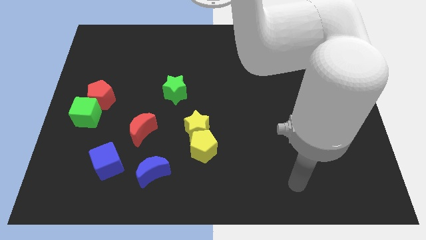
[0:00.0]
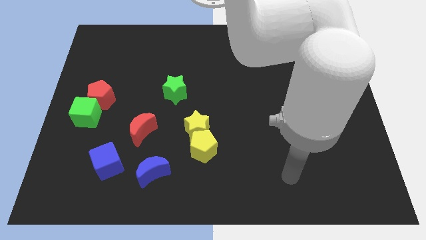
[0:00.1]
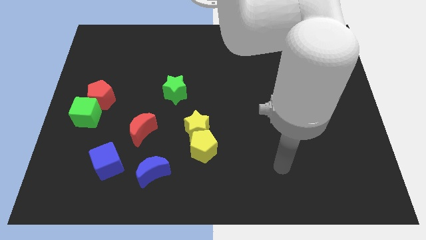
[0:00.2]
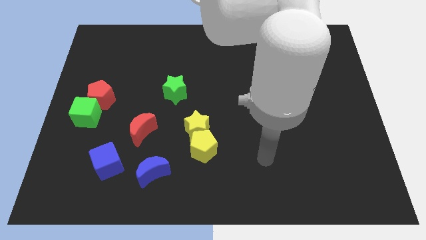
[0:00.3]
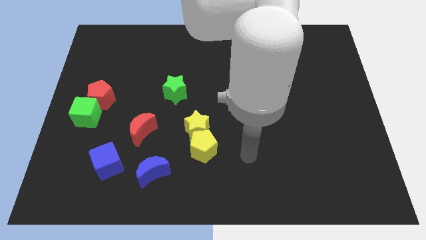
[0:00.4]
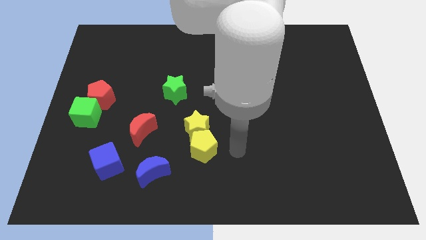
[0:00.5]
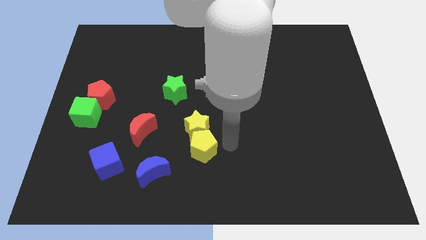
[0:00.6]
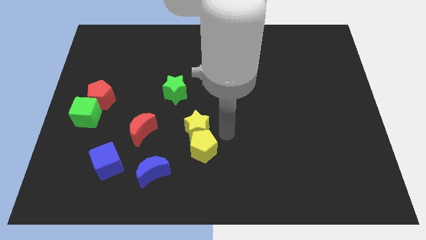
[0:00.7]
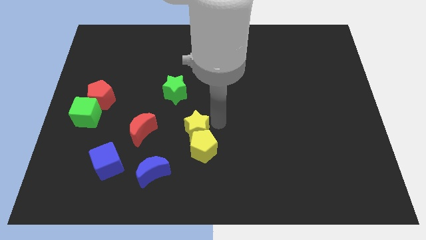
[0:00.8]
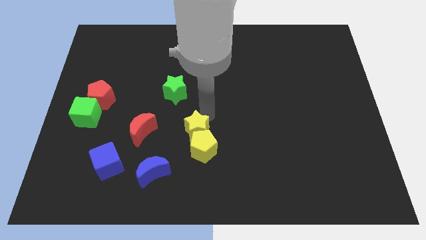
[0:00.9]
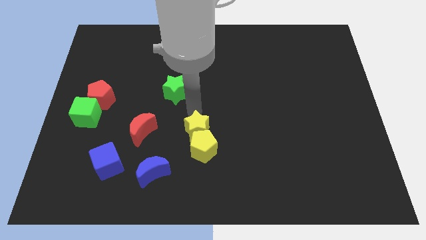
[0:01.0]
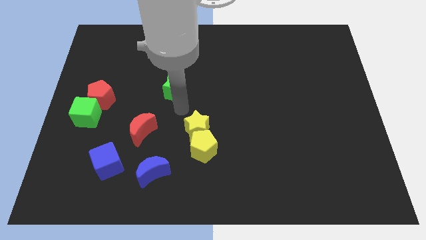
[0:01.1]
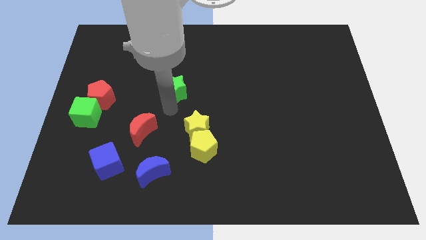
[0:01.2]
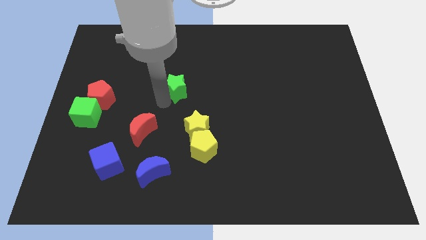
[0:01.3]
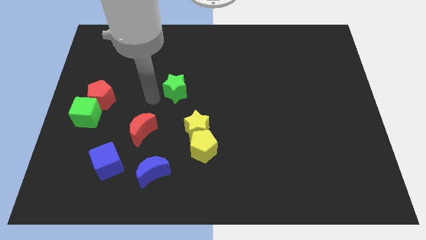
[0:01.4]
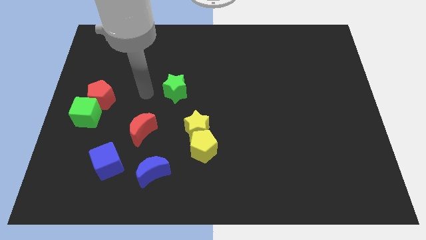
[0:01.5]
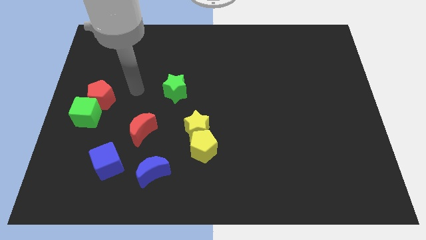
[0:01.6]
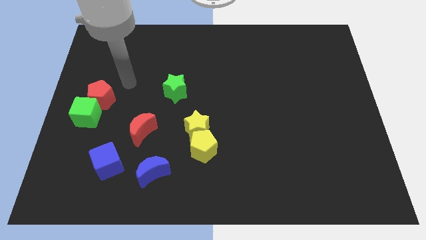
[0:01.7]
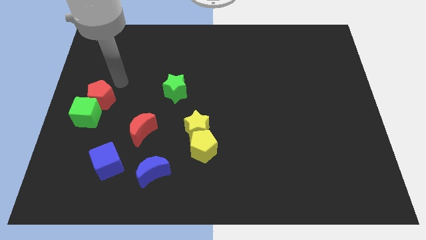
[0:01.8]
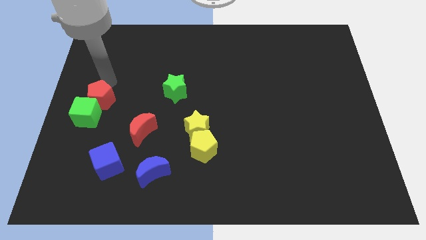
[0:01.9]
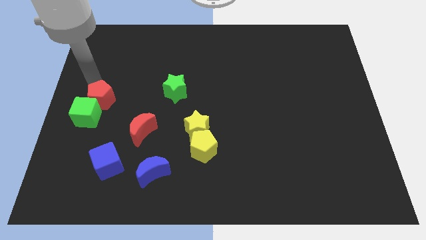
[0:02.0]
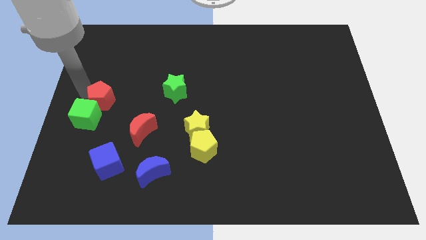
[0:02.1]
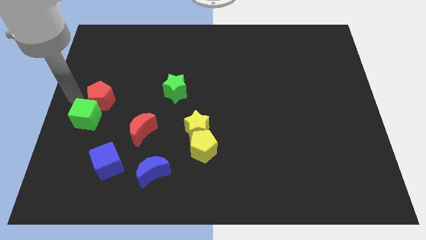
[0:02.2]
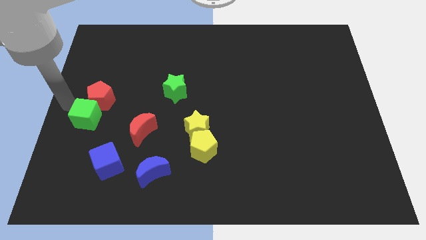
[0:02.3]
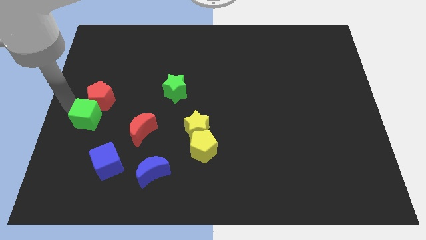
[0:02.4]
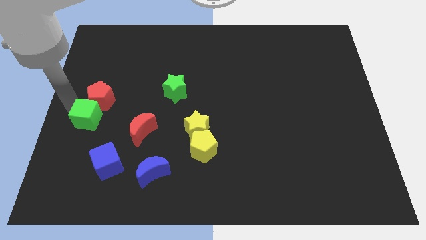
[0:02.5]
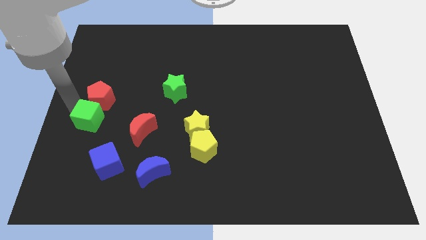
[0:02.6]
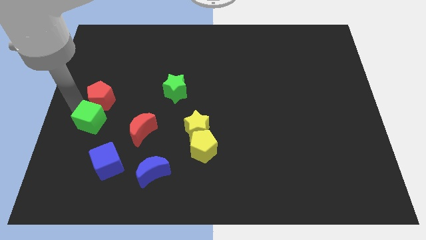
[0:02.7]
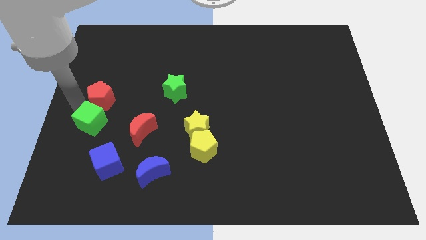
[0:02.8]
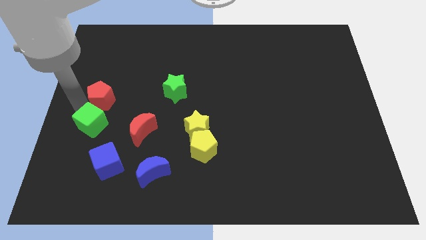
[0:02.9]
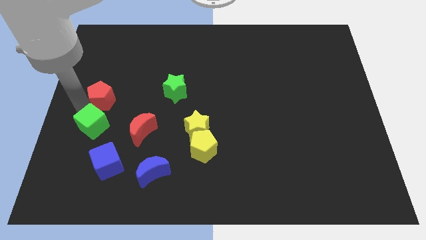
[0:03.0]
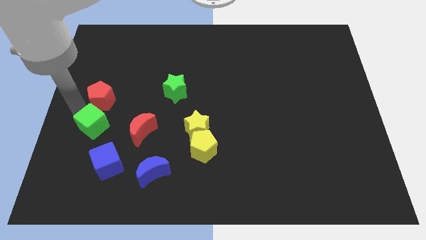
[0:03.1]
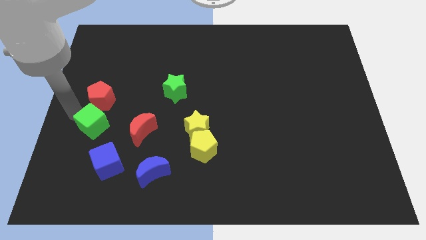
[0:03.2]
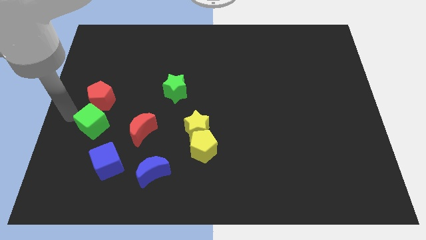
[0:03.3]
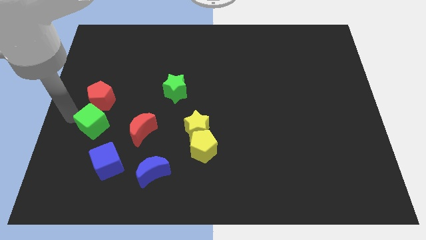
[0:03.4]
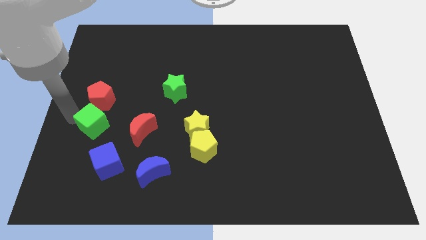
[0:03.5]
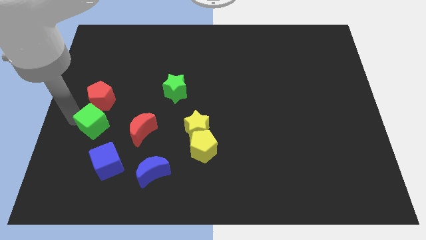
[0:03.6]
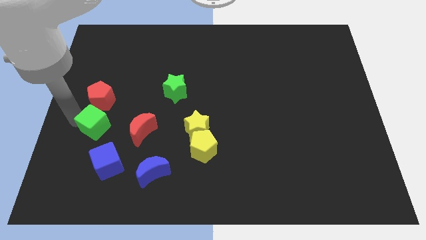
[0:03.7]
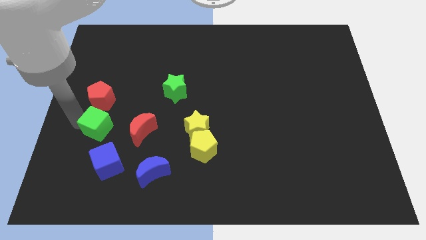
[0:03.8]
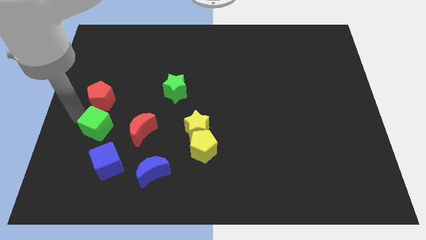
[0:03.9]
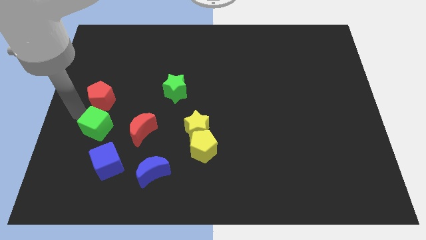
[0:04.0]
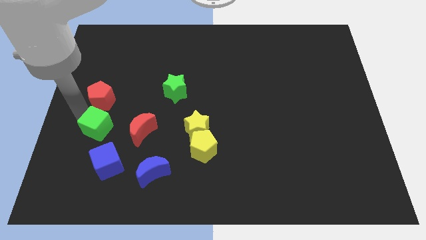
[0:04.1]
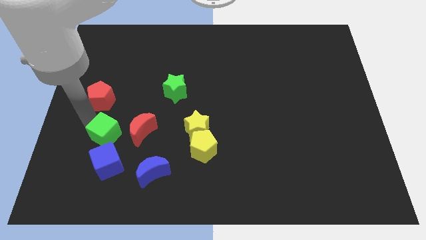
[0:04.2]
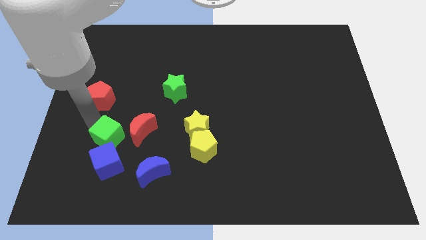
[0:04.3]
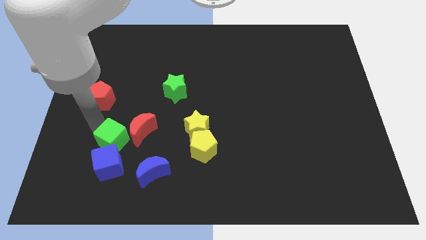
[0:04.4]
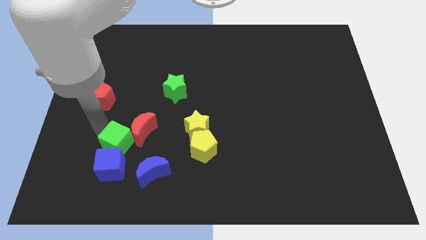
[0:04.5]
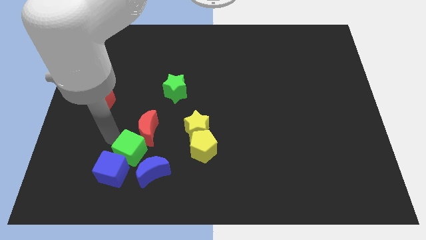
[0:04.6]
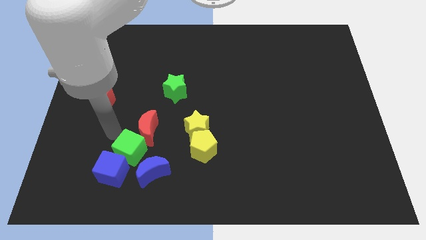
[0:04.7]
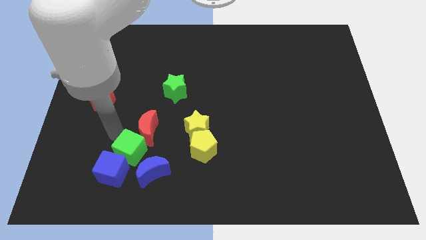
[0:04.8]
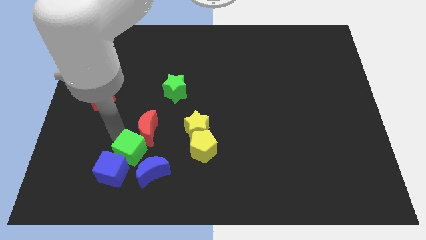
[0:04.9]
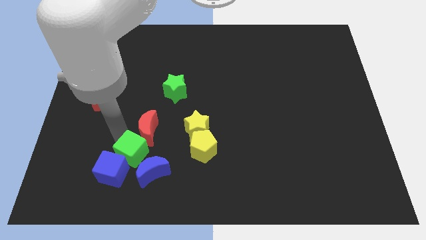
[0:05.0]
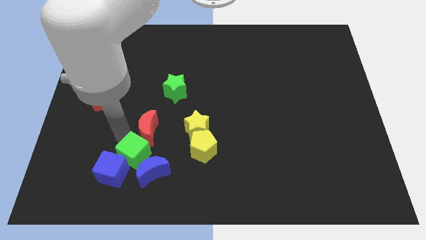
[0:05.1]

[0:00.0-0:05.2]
put the green cube to the blue moon

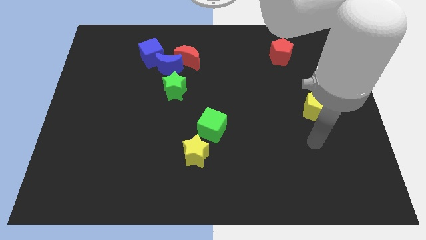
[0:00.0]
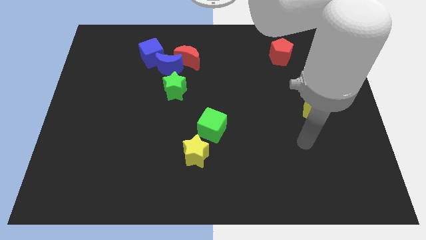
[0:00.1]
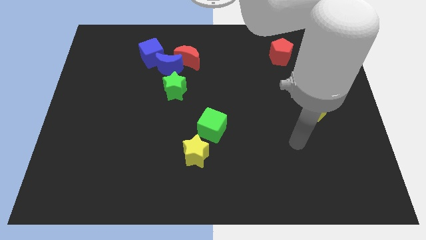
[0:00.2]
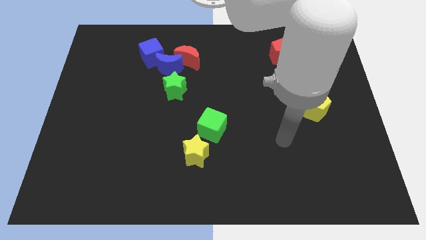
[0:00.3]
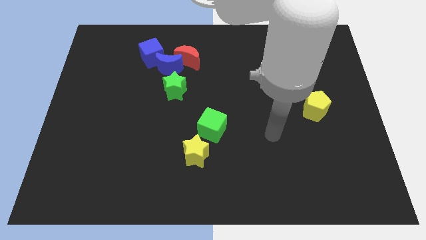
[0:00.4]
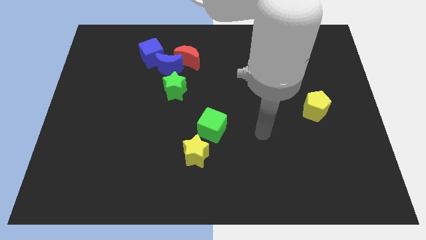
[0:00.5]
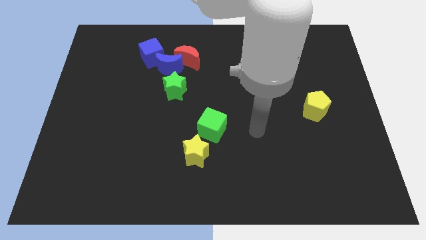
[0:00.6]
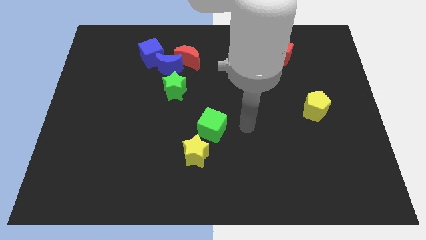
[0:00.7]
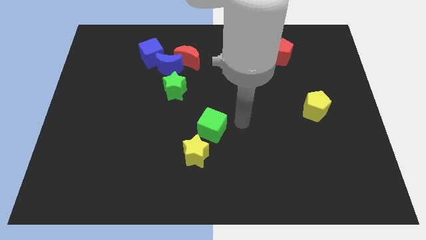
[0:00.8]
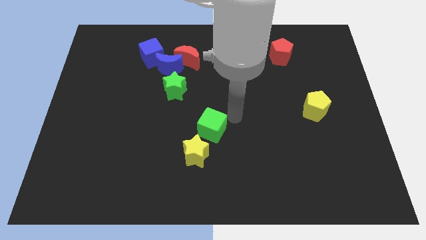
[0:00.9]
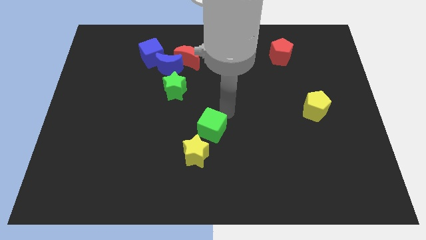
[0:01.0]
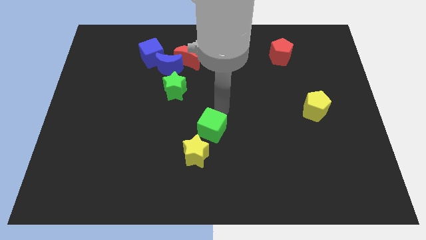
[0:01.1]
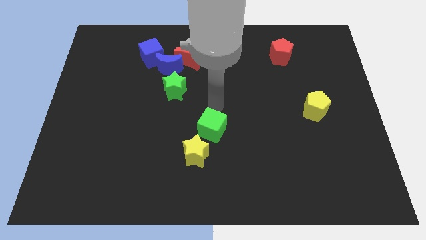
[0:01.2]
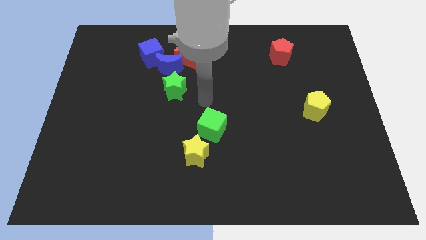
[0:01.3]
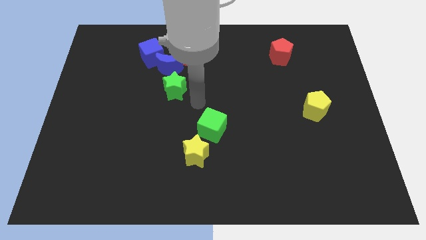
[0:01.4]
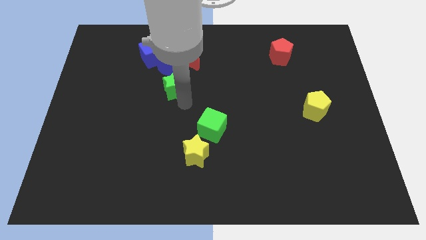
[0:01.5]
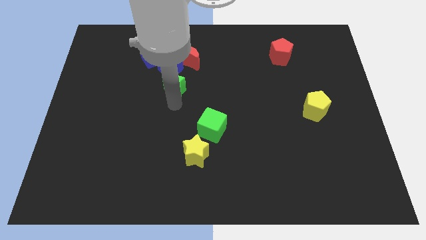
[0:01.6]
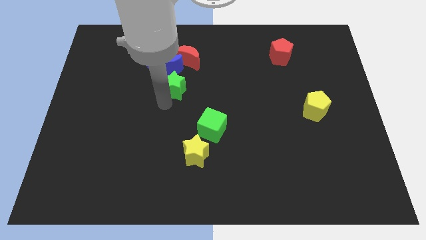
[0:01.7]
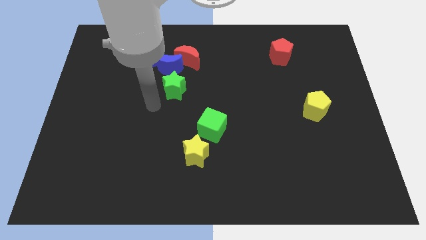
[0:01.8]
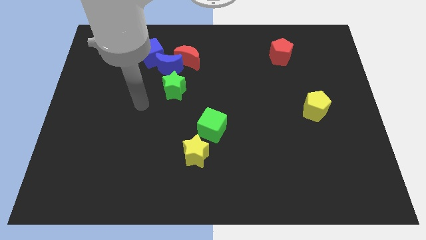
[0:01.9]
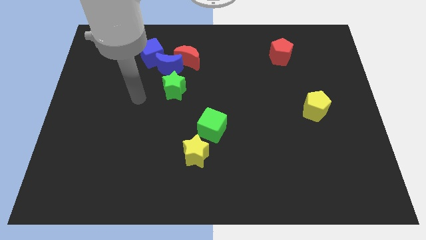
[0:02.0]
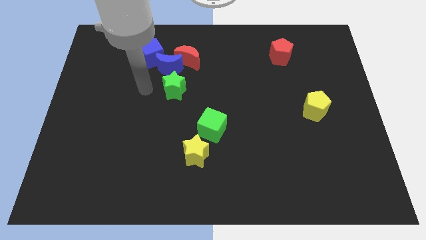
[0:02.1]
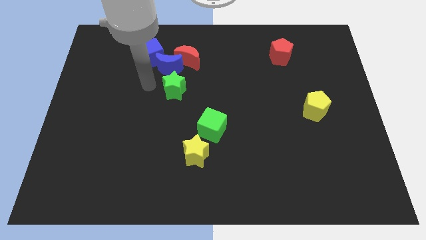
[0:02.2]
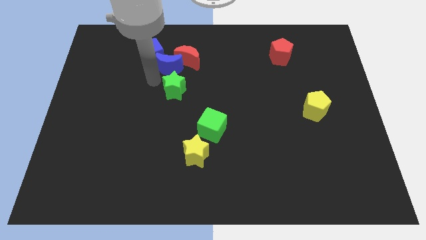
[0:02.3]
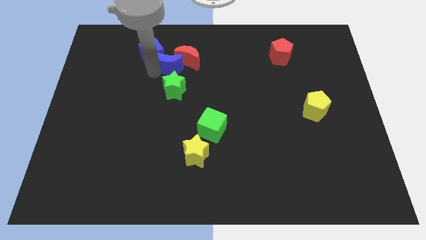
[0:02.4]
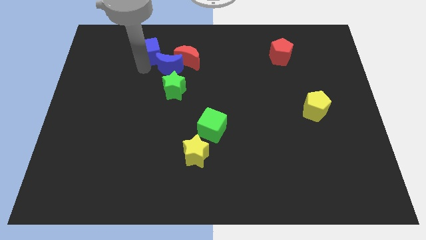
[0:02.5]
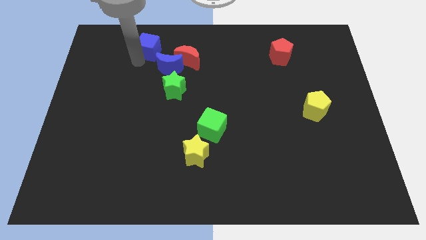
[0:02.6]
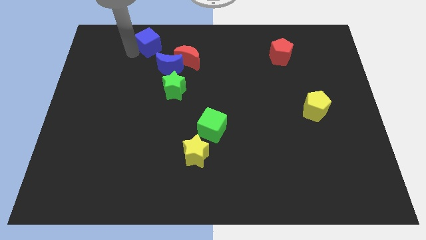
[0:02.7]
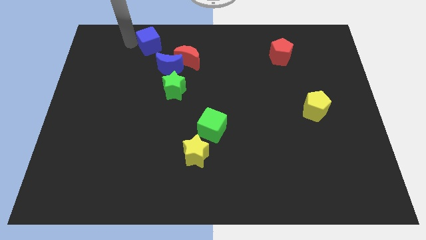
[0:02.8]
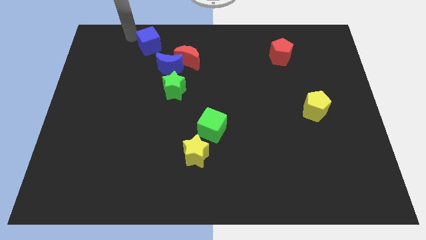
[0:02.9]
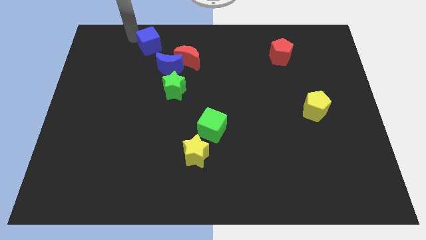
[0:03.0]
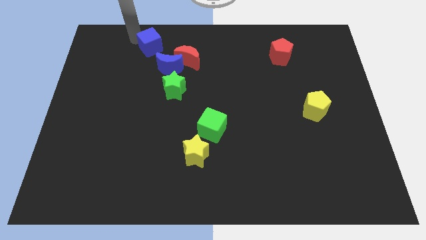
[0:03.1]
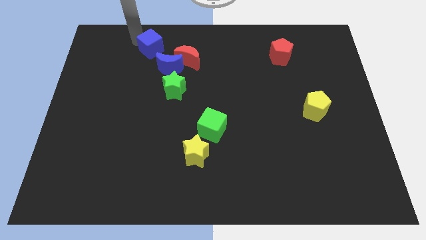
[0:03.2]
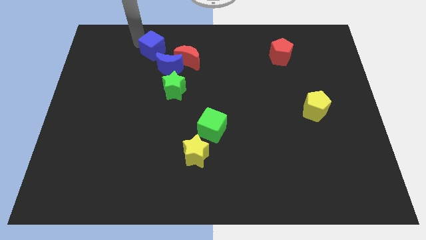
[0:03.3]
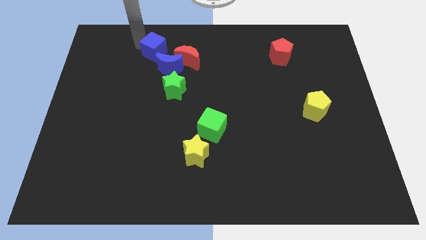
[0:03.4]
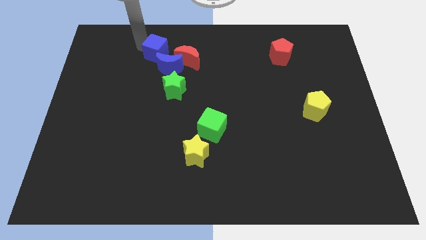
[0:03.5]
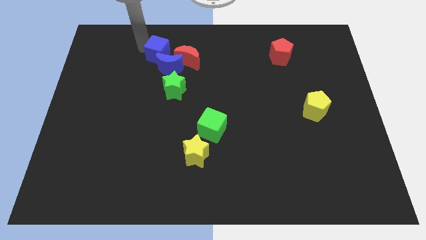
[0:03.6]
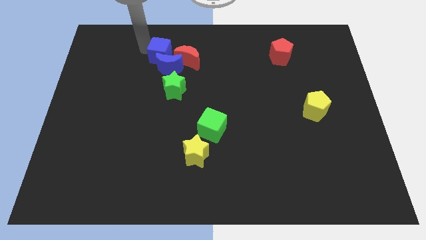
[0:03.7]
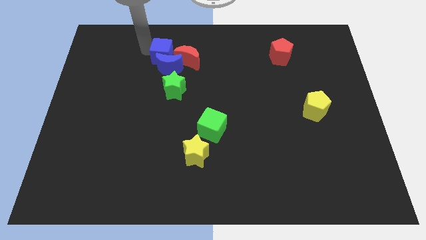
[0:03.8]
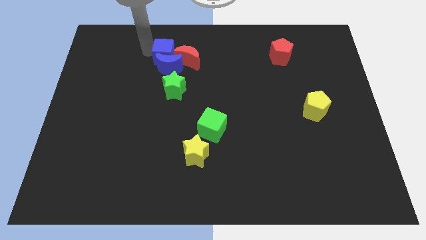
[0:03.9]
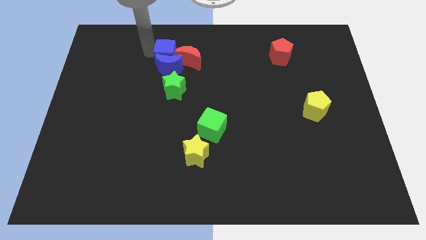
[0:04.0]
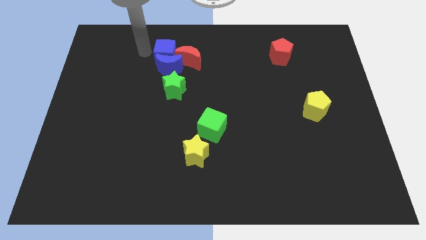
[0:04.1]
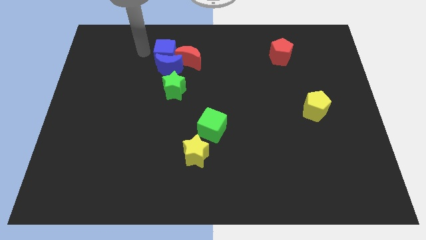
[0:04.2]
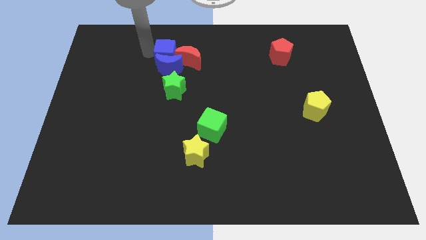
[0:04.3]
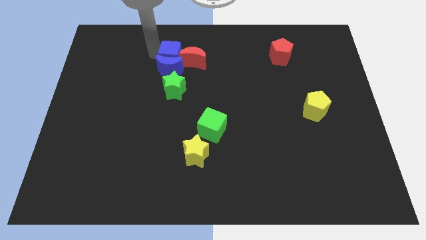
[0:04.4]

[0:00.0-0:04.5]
push the blue cube next to the red moon
